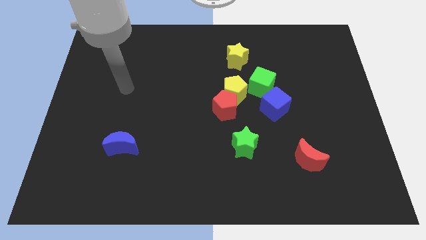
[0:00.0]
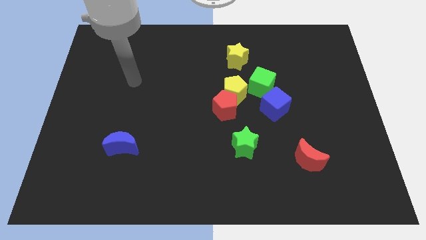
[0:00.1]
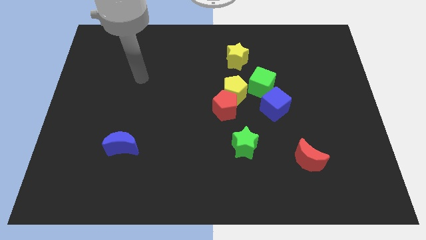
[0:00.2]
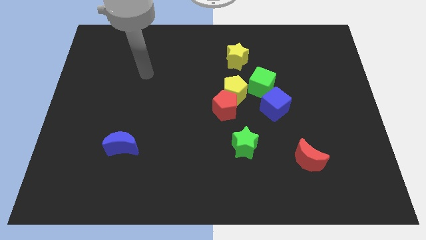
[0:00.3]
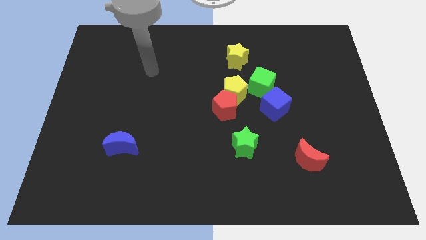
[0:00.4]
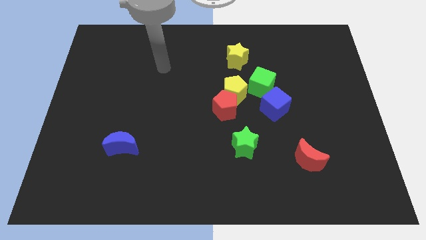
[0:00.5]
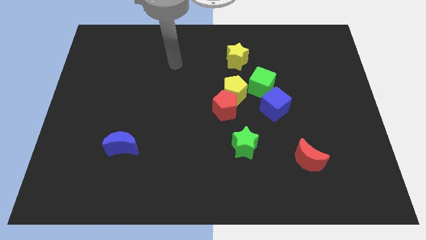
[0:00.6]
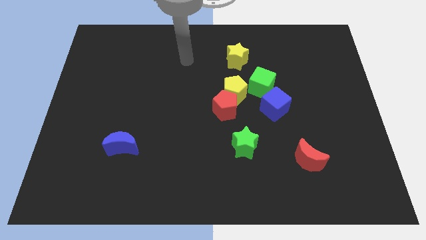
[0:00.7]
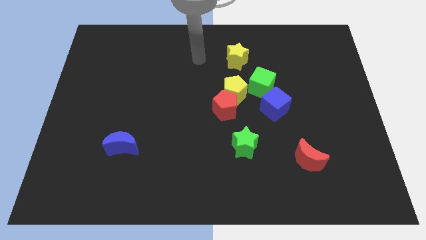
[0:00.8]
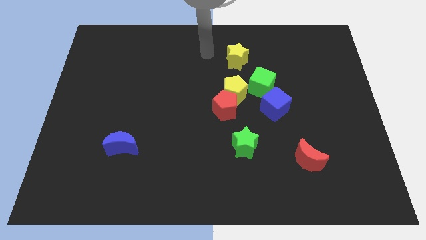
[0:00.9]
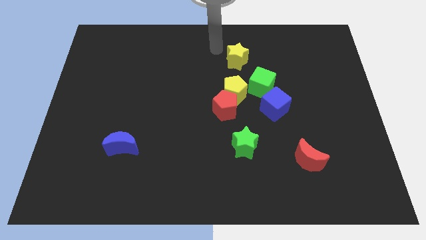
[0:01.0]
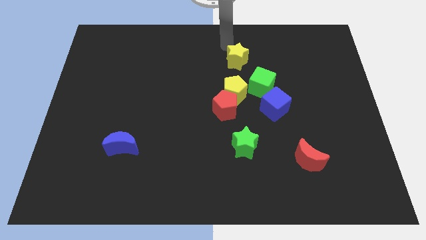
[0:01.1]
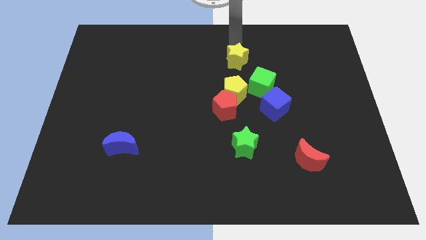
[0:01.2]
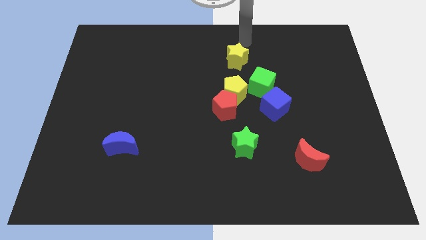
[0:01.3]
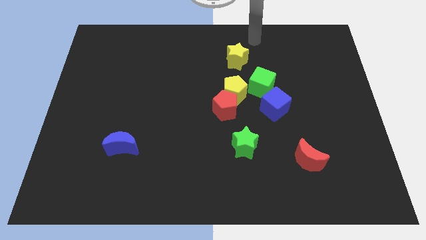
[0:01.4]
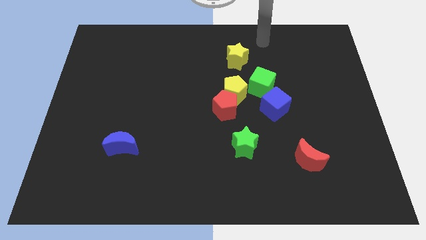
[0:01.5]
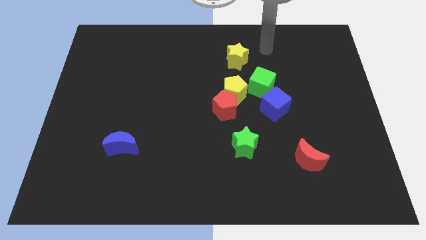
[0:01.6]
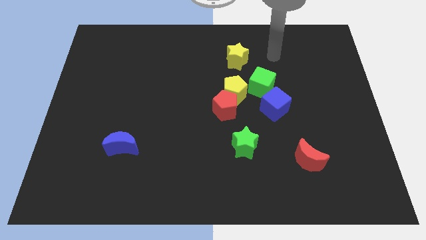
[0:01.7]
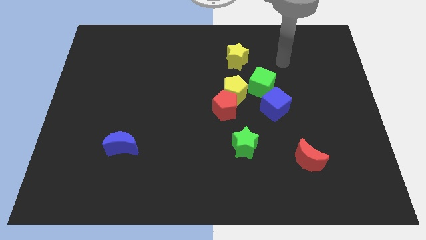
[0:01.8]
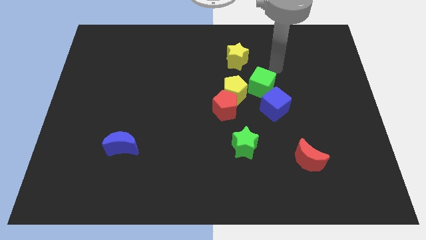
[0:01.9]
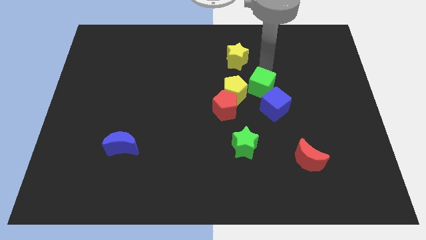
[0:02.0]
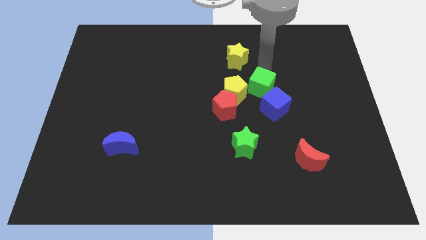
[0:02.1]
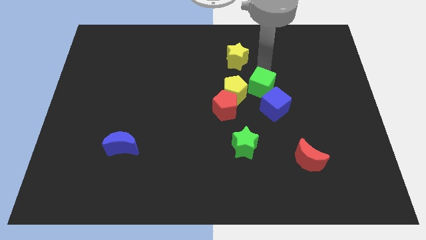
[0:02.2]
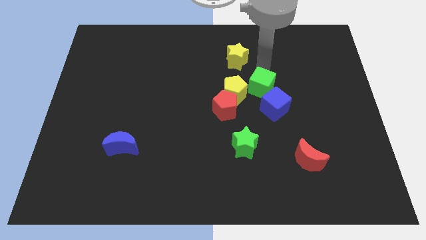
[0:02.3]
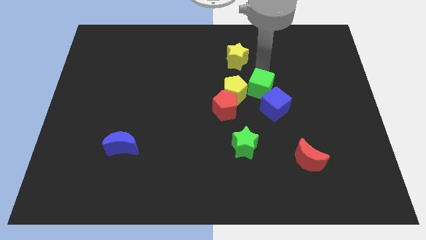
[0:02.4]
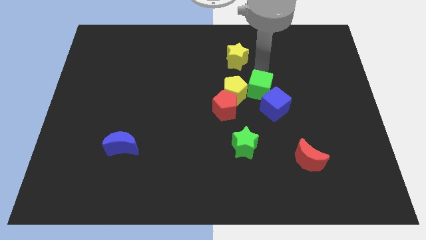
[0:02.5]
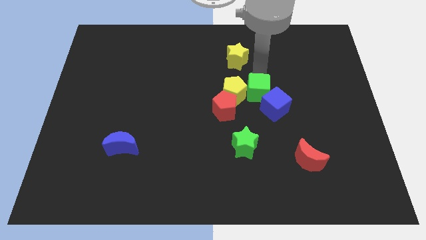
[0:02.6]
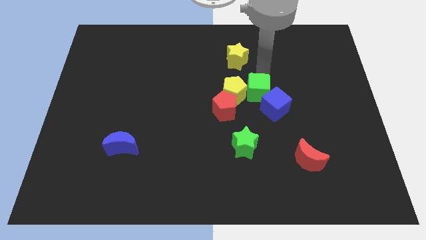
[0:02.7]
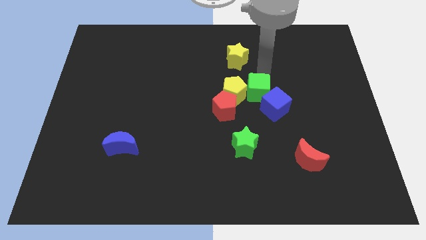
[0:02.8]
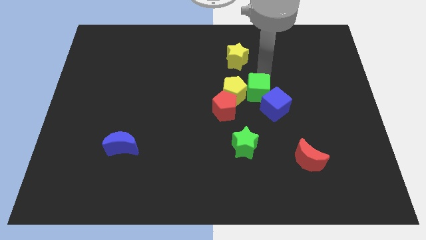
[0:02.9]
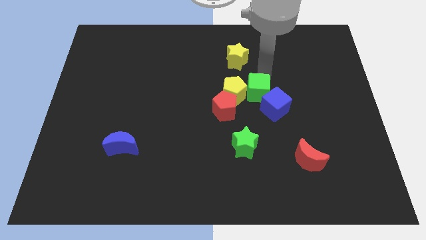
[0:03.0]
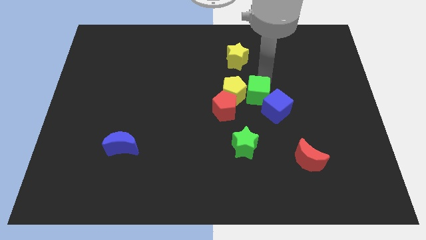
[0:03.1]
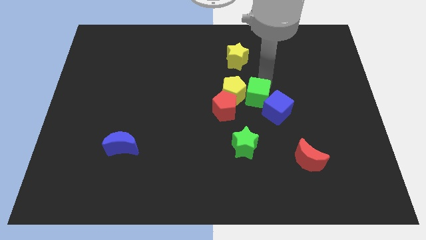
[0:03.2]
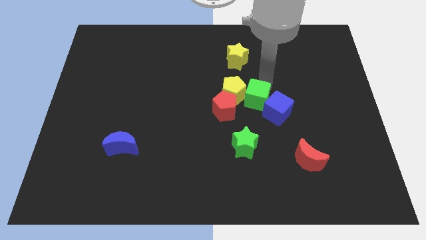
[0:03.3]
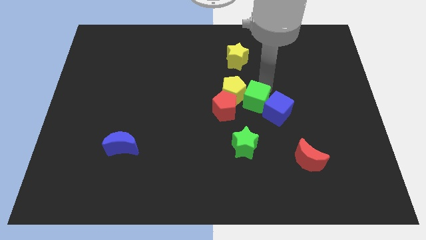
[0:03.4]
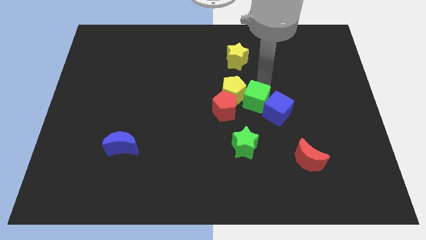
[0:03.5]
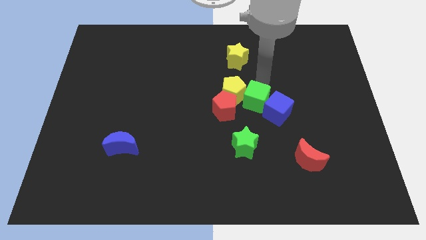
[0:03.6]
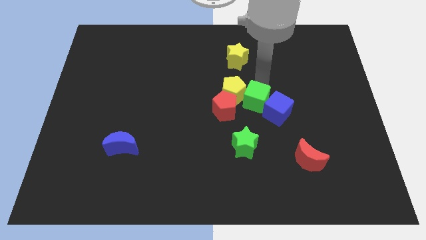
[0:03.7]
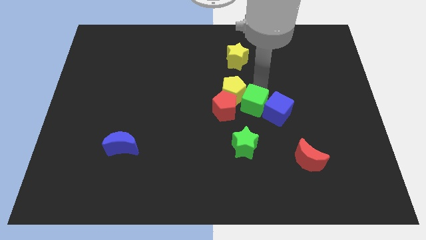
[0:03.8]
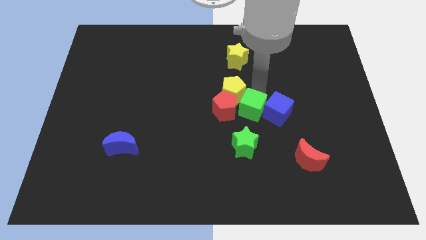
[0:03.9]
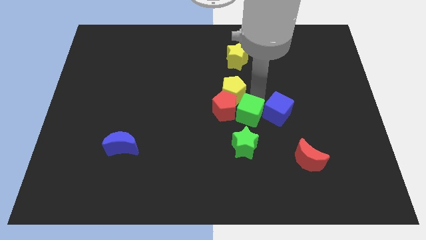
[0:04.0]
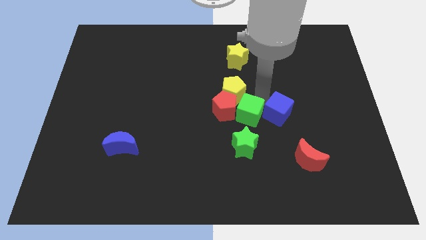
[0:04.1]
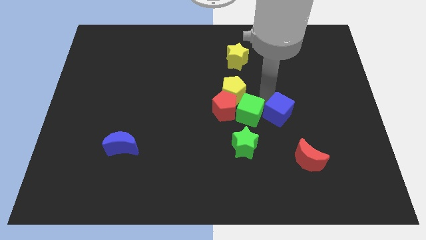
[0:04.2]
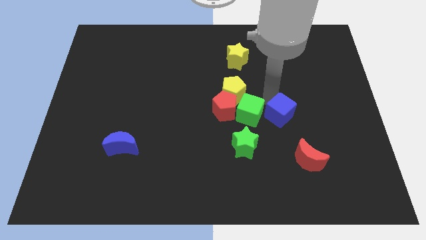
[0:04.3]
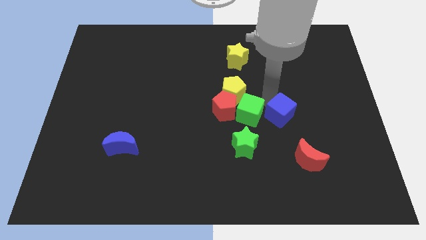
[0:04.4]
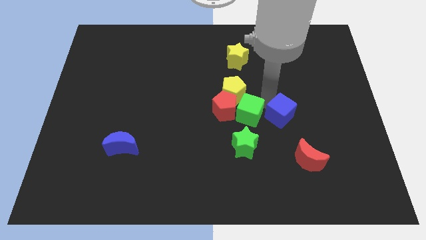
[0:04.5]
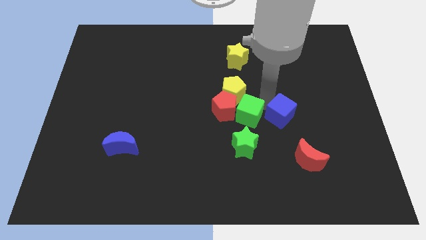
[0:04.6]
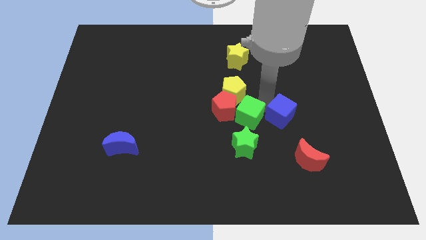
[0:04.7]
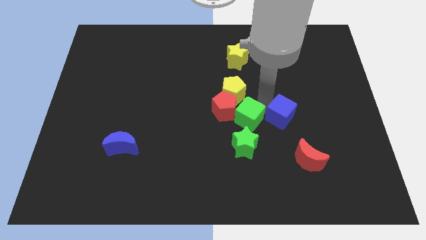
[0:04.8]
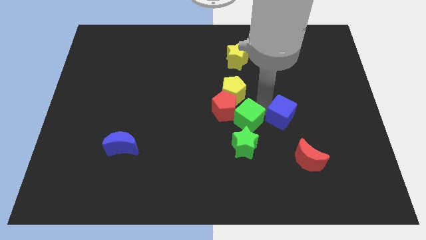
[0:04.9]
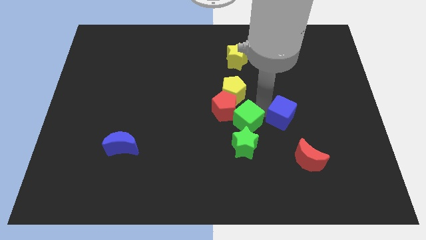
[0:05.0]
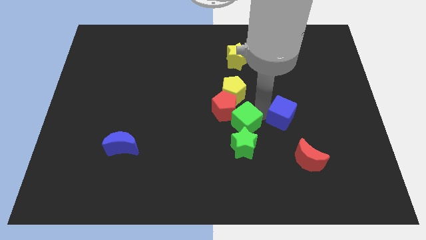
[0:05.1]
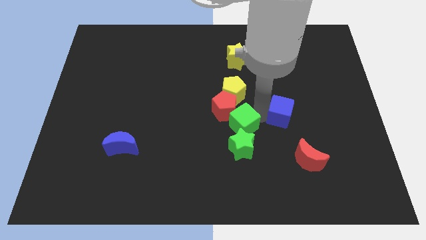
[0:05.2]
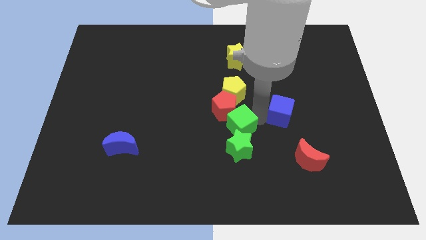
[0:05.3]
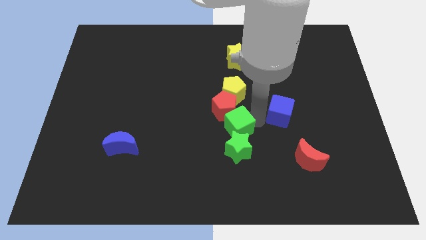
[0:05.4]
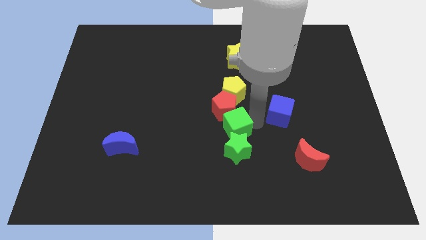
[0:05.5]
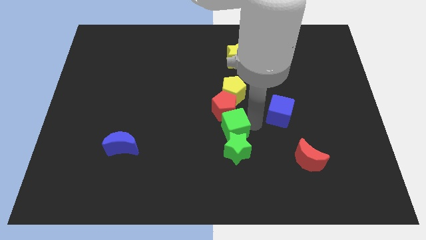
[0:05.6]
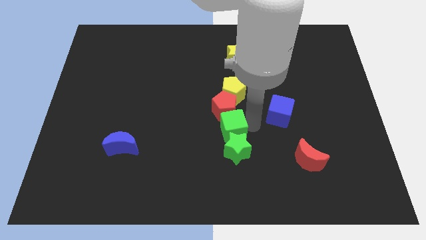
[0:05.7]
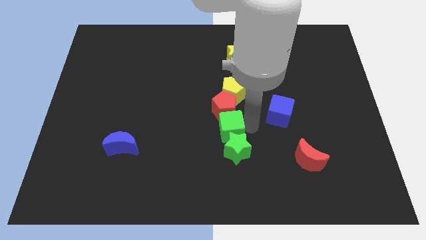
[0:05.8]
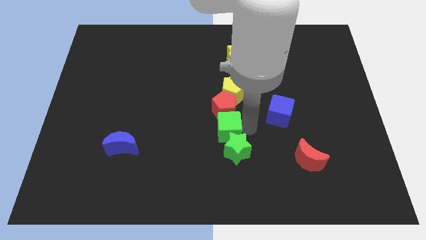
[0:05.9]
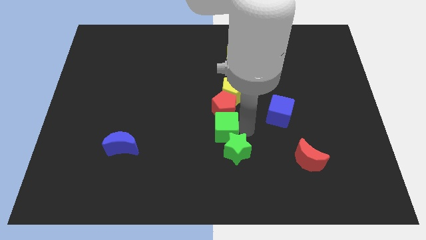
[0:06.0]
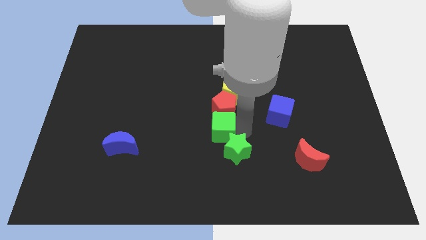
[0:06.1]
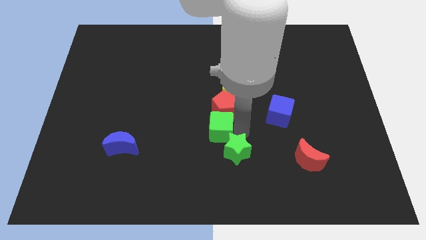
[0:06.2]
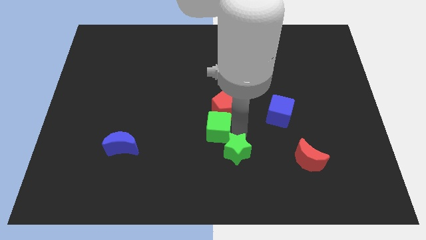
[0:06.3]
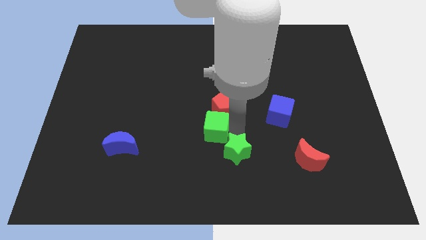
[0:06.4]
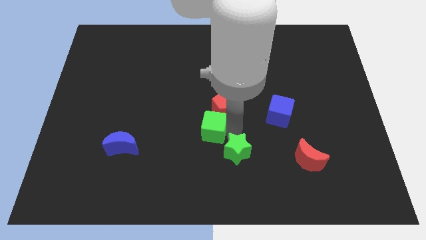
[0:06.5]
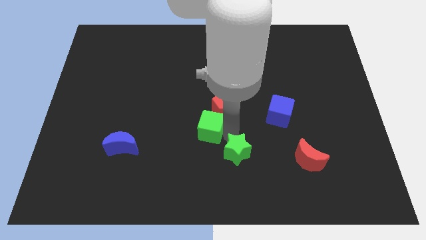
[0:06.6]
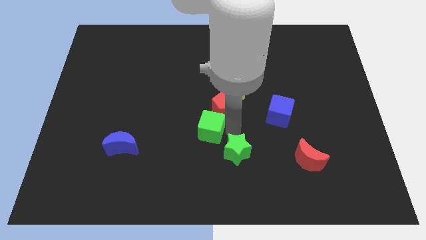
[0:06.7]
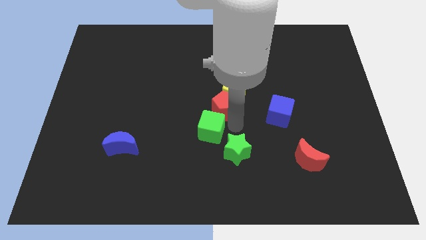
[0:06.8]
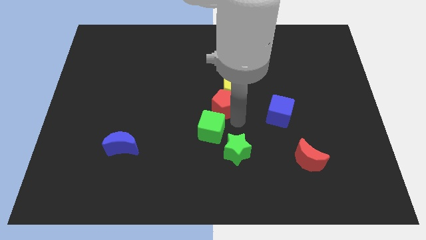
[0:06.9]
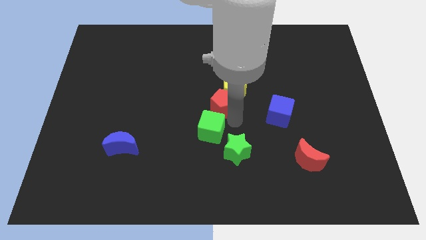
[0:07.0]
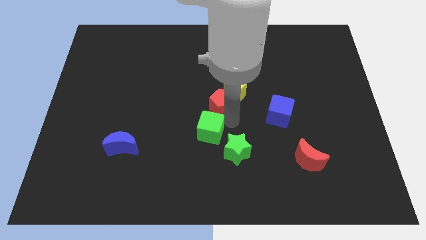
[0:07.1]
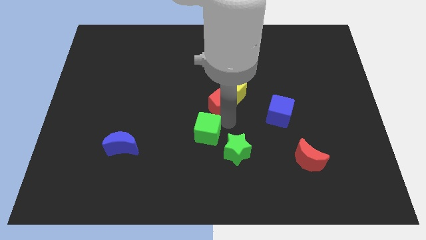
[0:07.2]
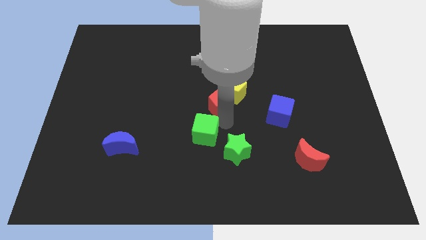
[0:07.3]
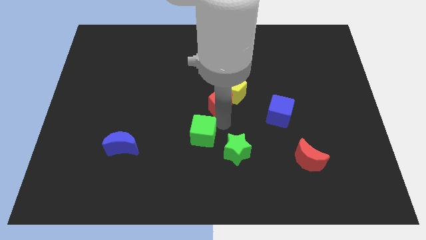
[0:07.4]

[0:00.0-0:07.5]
push the green cube diagonally down and to the left

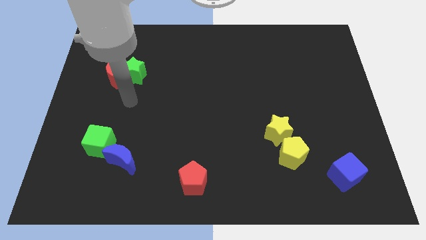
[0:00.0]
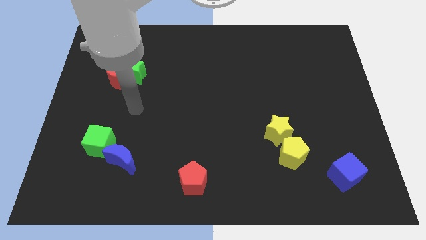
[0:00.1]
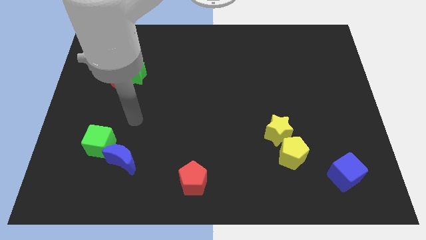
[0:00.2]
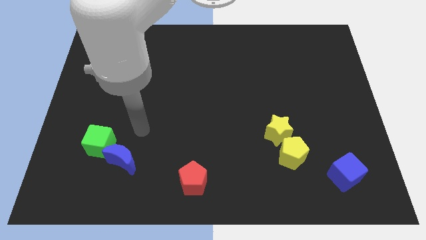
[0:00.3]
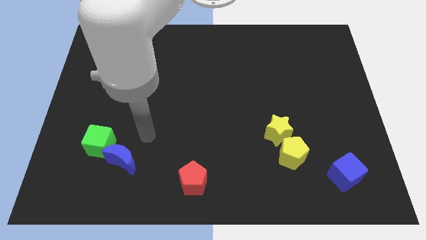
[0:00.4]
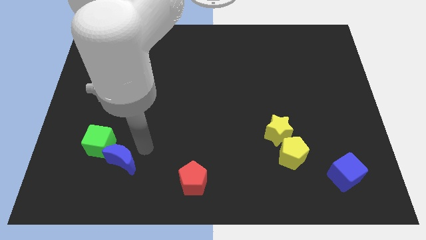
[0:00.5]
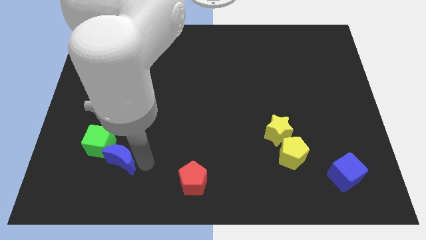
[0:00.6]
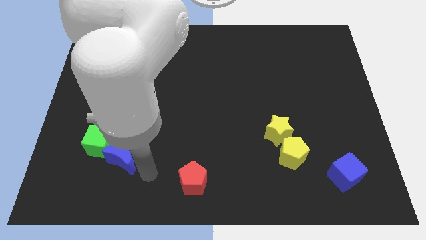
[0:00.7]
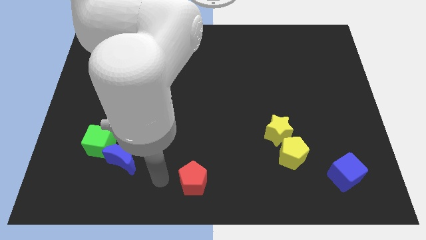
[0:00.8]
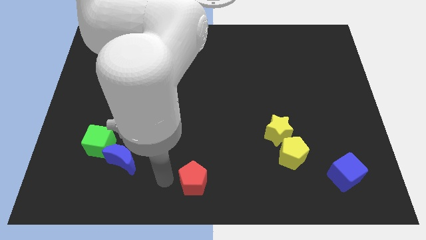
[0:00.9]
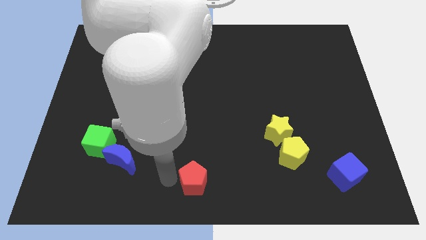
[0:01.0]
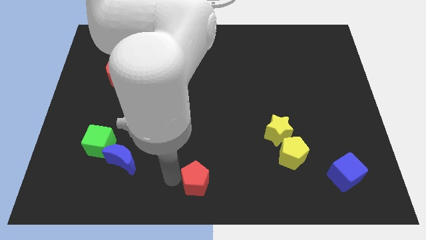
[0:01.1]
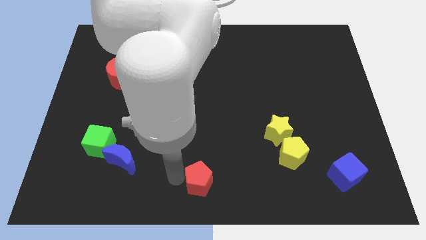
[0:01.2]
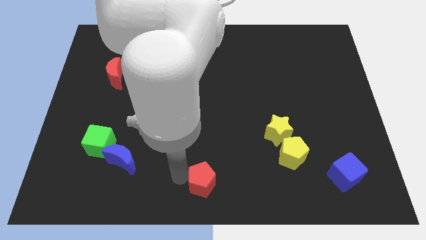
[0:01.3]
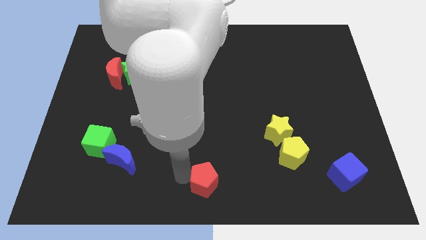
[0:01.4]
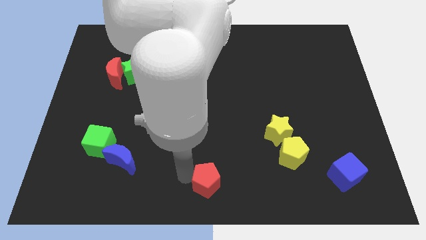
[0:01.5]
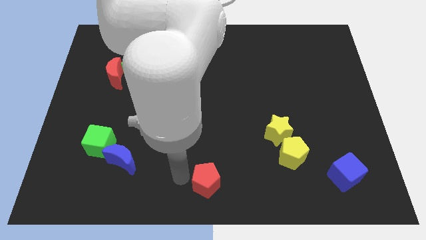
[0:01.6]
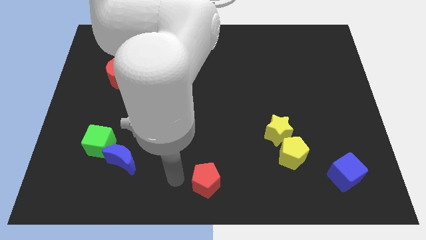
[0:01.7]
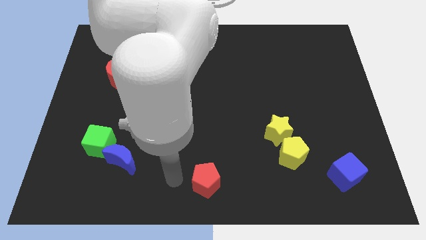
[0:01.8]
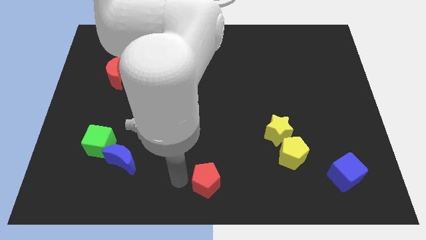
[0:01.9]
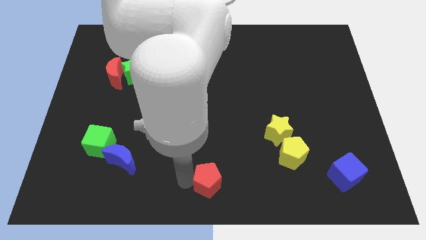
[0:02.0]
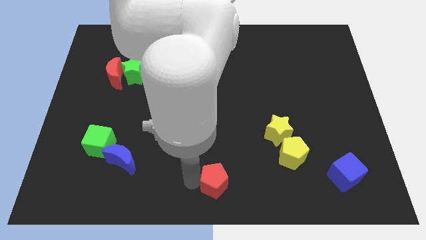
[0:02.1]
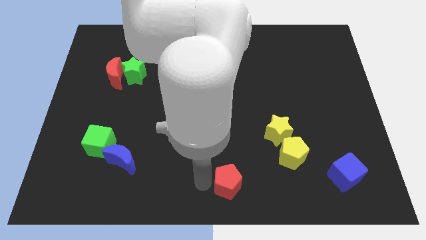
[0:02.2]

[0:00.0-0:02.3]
slightly slide the red pentagon right
